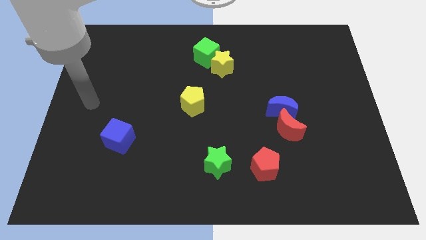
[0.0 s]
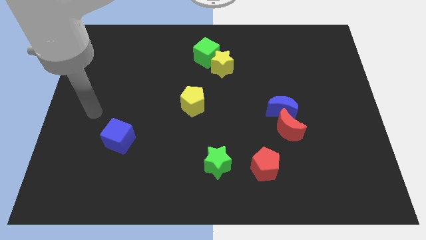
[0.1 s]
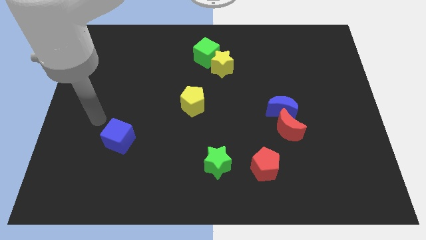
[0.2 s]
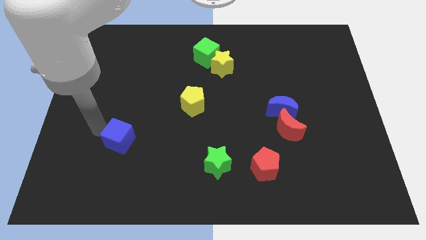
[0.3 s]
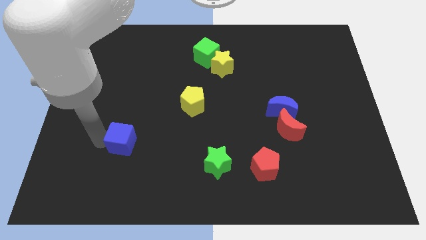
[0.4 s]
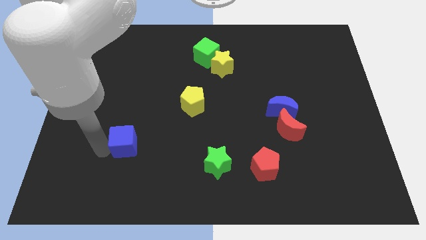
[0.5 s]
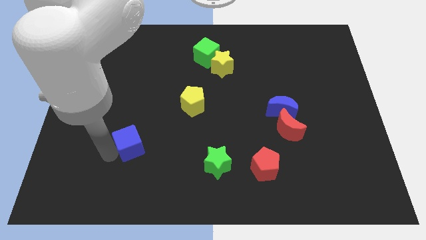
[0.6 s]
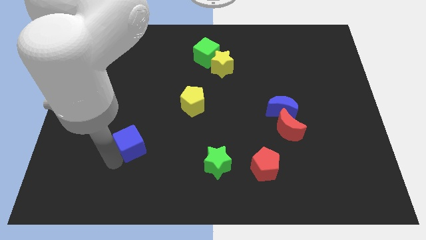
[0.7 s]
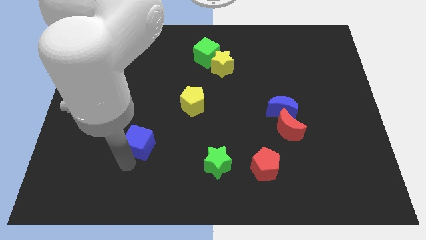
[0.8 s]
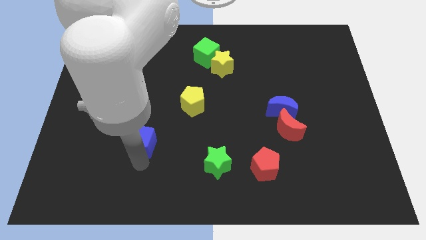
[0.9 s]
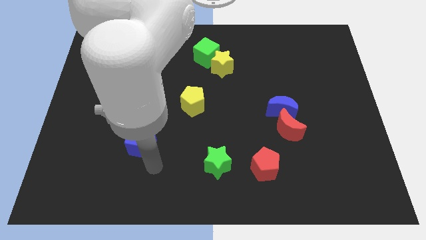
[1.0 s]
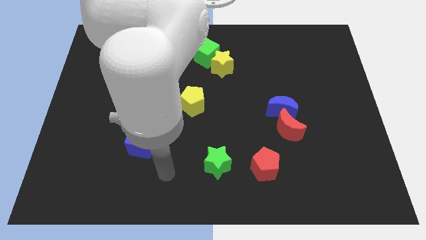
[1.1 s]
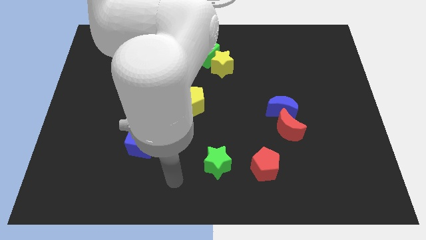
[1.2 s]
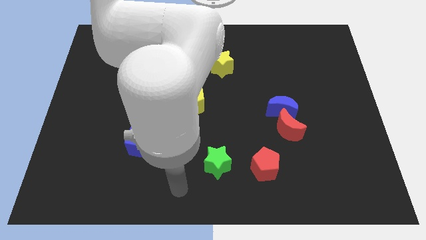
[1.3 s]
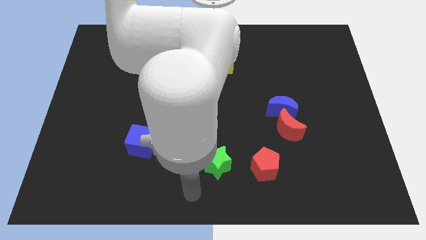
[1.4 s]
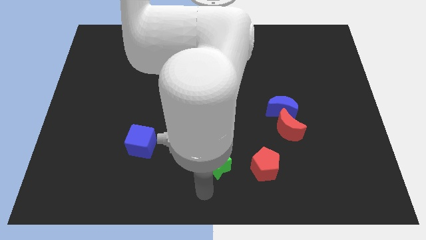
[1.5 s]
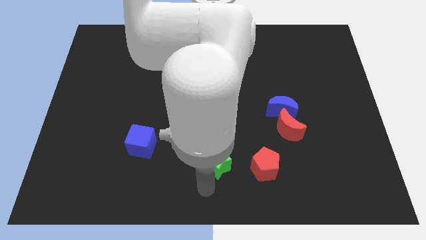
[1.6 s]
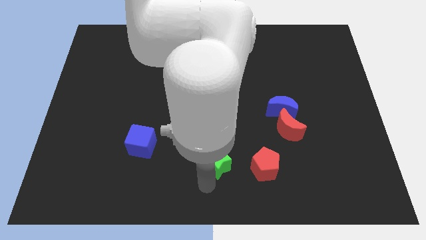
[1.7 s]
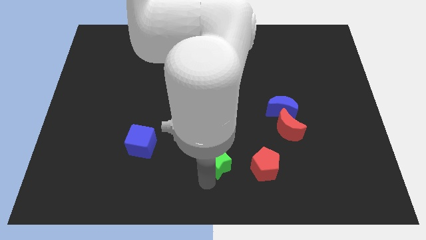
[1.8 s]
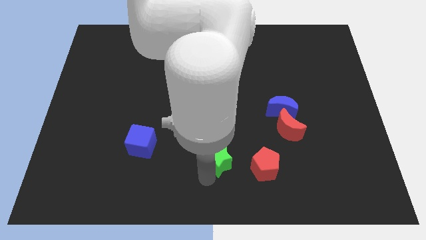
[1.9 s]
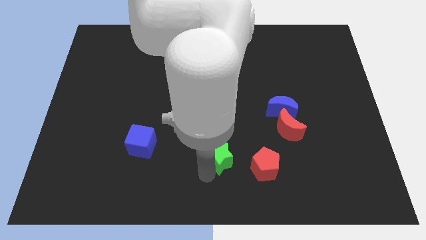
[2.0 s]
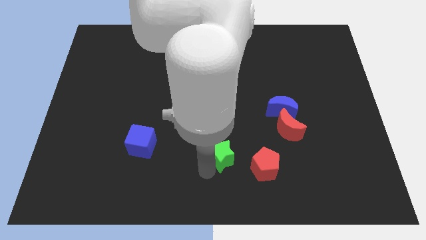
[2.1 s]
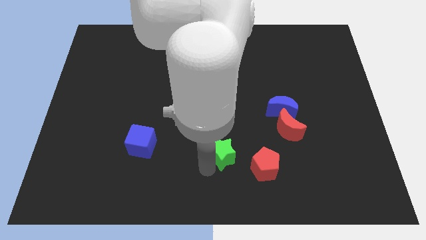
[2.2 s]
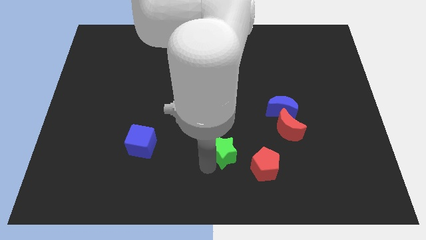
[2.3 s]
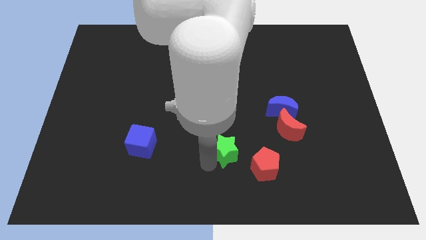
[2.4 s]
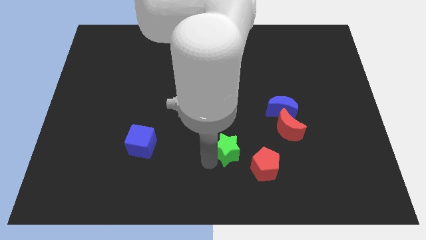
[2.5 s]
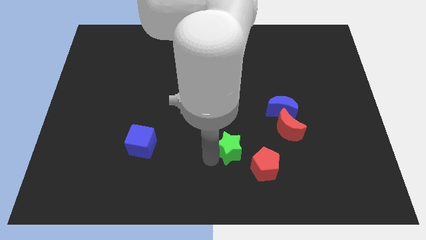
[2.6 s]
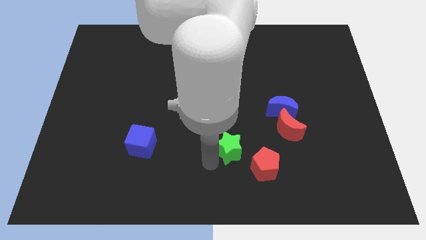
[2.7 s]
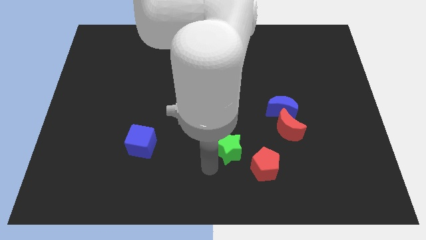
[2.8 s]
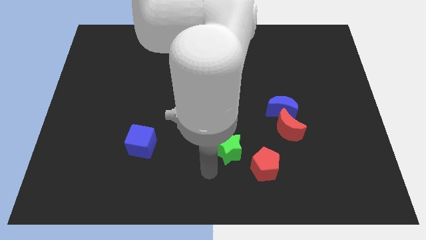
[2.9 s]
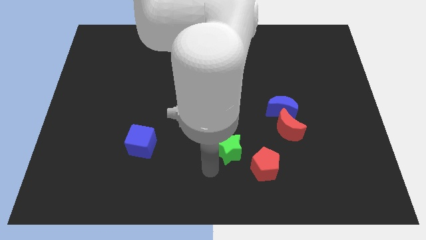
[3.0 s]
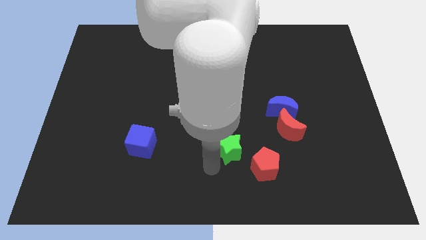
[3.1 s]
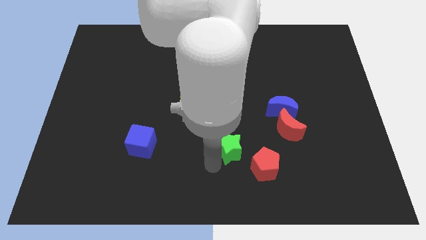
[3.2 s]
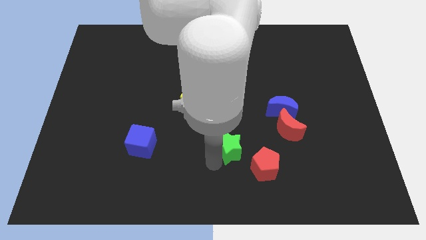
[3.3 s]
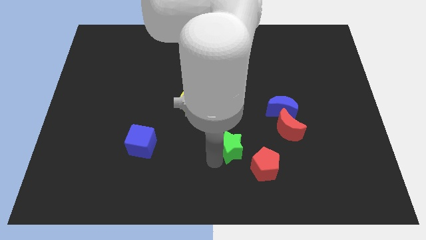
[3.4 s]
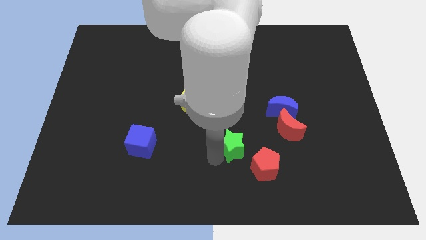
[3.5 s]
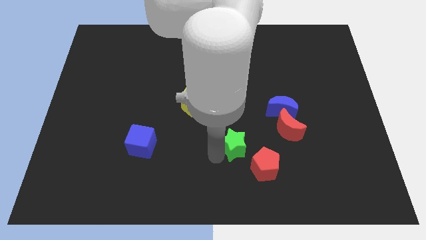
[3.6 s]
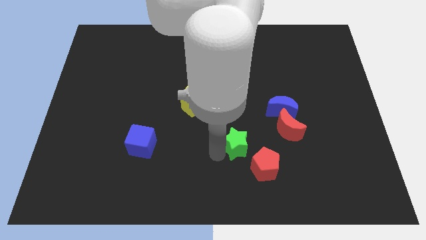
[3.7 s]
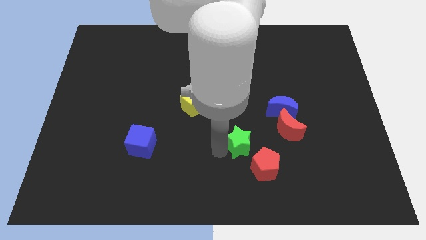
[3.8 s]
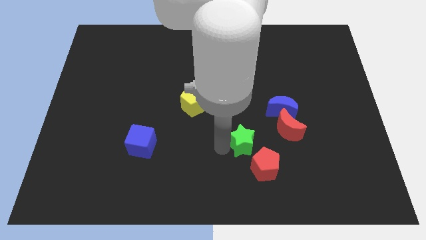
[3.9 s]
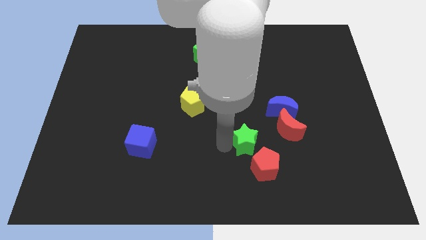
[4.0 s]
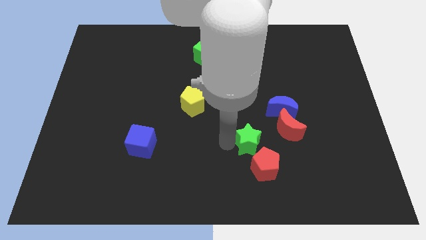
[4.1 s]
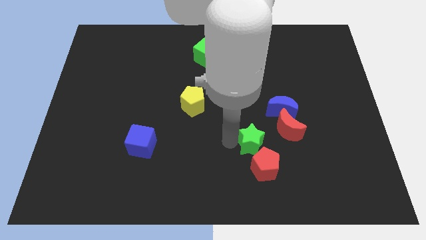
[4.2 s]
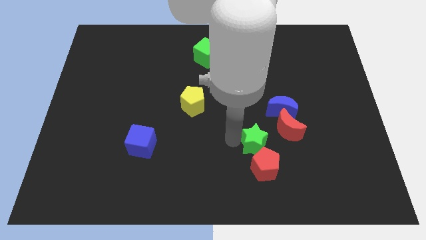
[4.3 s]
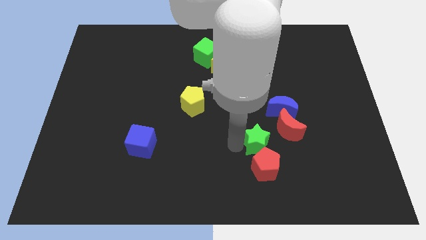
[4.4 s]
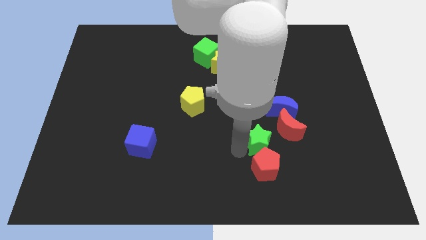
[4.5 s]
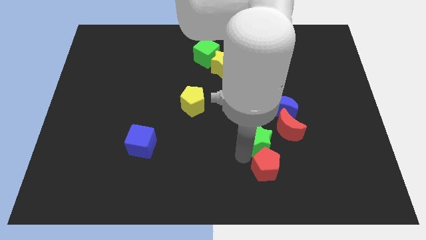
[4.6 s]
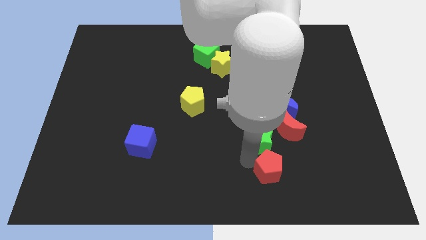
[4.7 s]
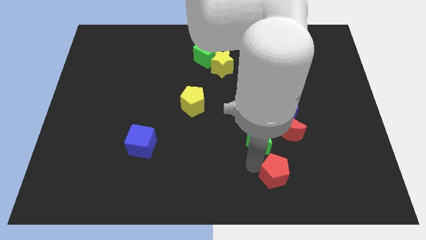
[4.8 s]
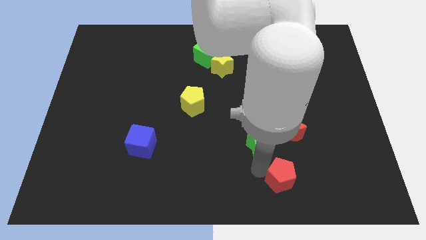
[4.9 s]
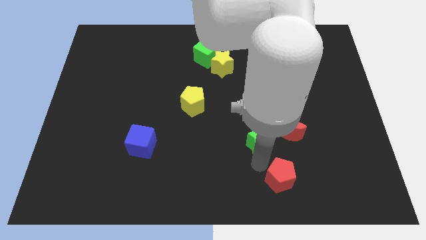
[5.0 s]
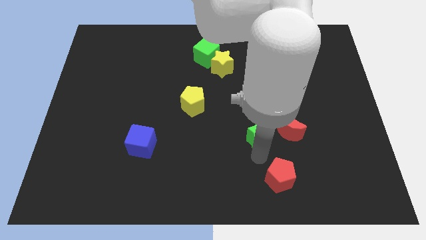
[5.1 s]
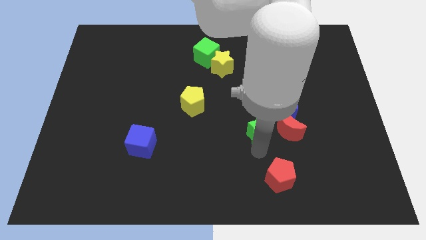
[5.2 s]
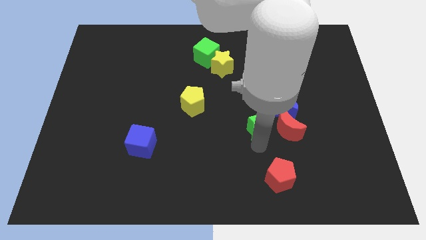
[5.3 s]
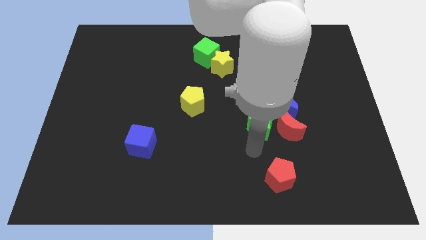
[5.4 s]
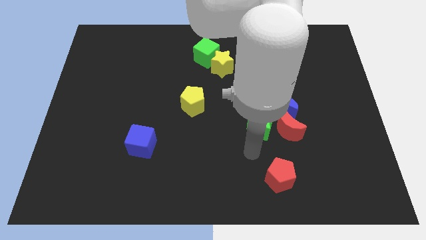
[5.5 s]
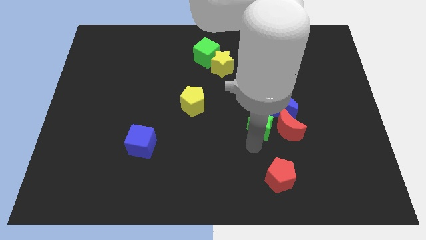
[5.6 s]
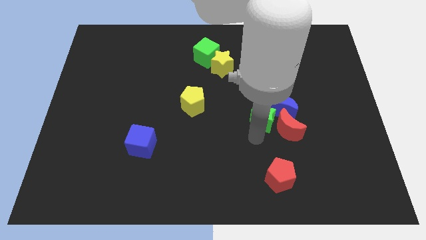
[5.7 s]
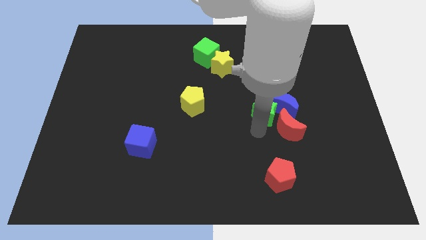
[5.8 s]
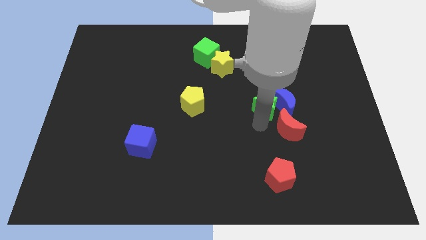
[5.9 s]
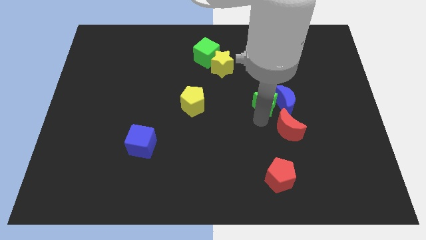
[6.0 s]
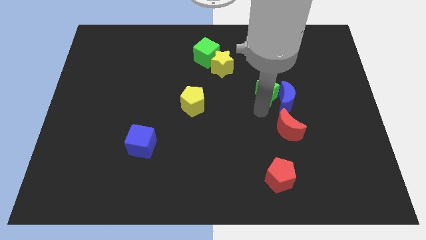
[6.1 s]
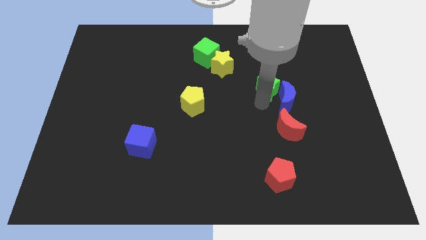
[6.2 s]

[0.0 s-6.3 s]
put the green star above the blue moon
